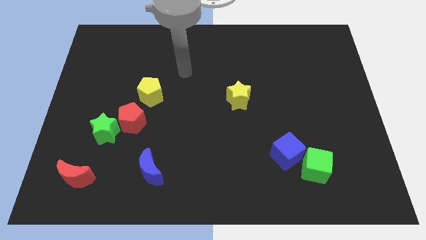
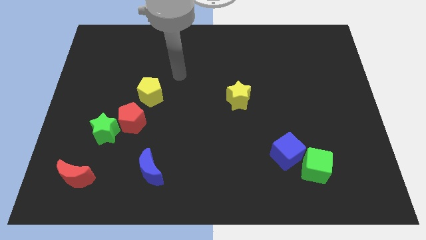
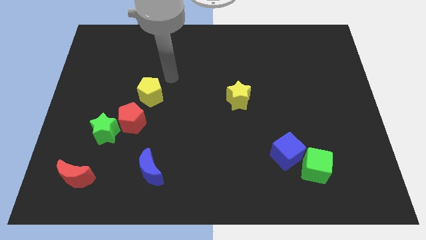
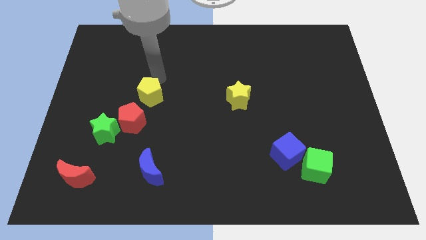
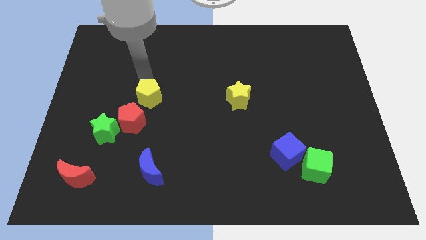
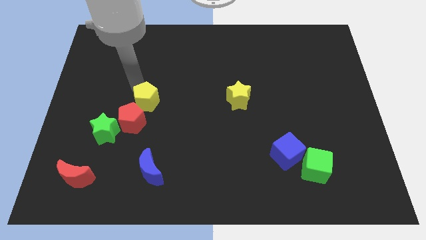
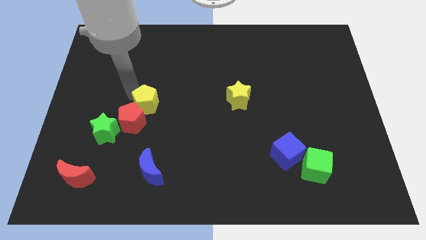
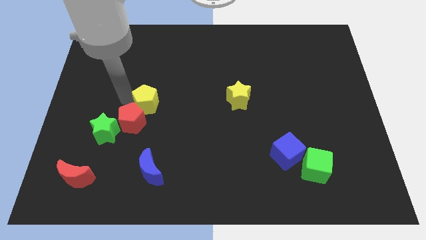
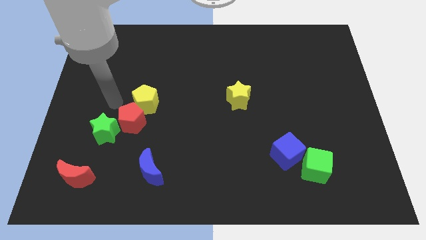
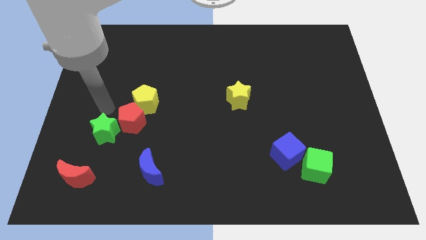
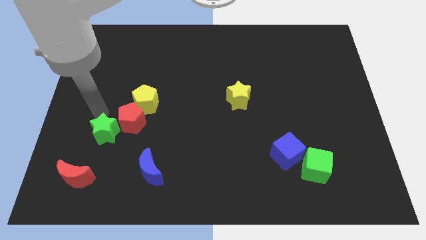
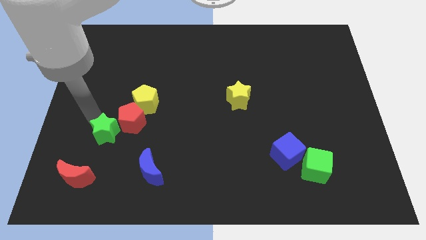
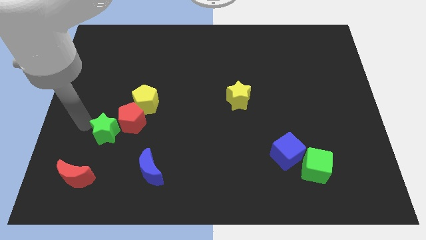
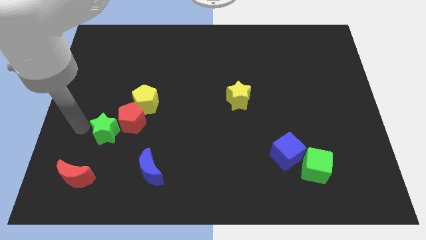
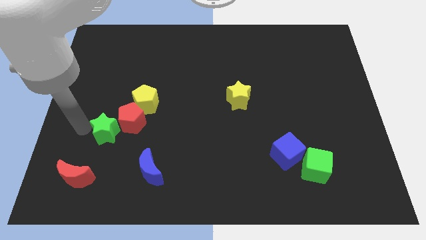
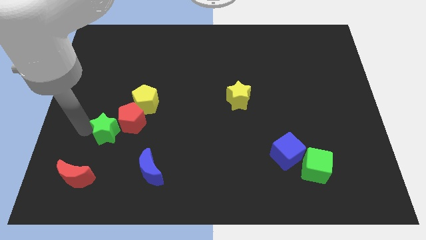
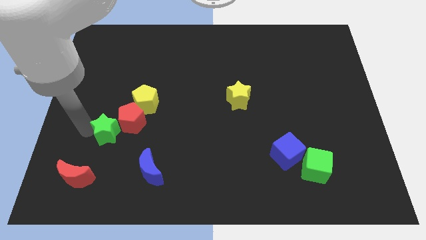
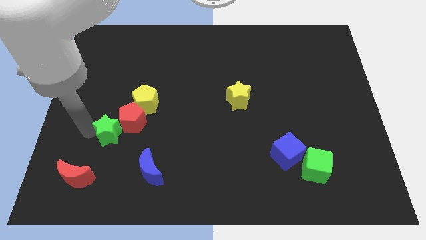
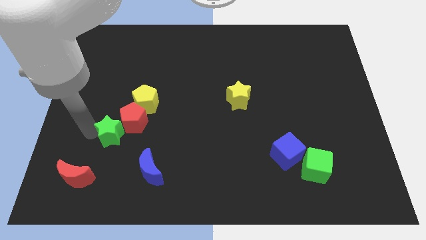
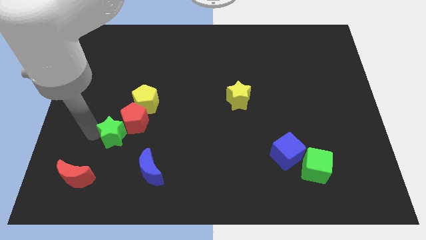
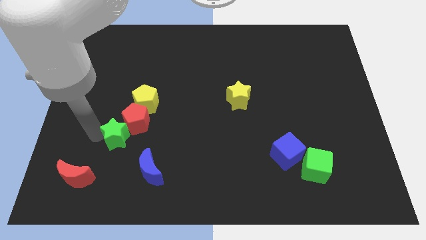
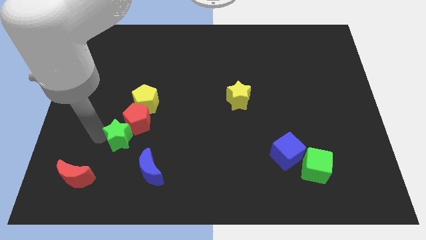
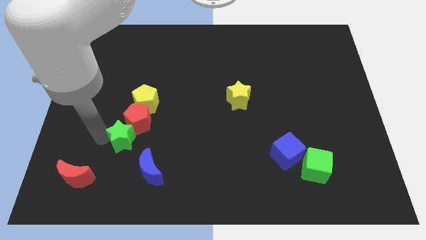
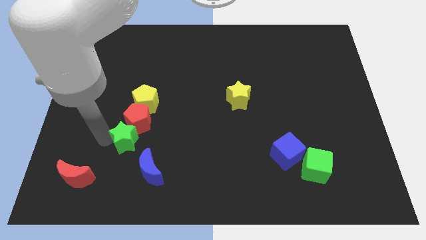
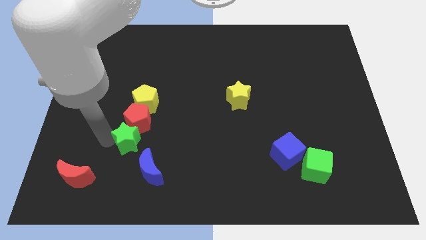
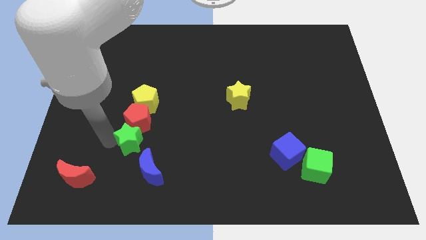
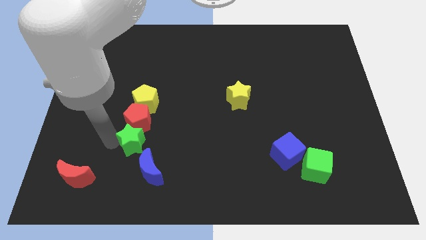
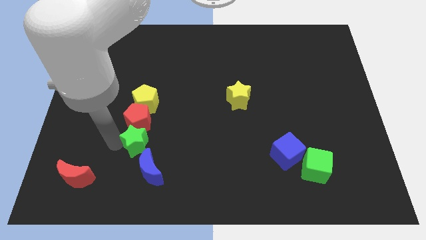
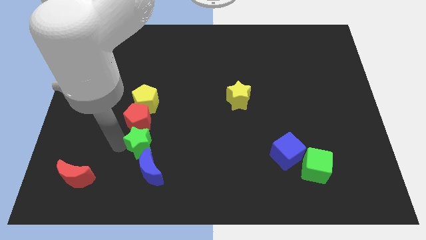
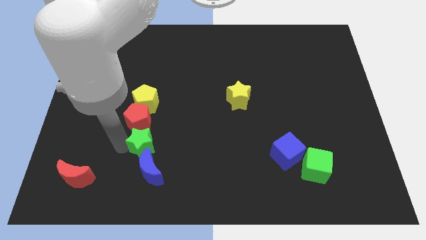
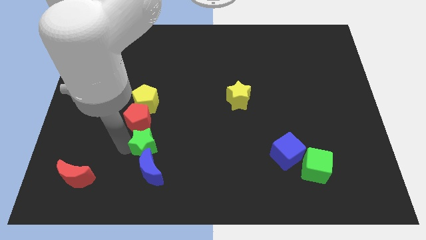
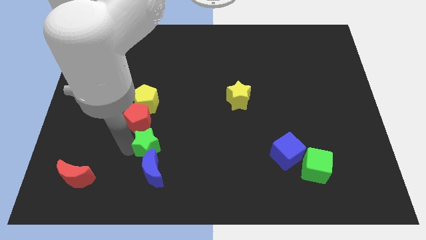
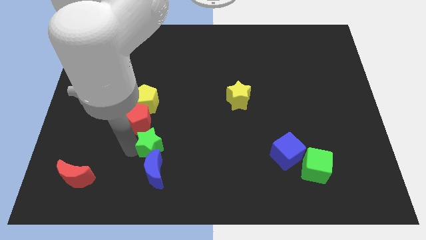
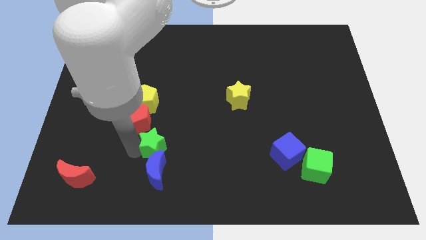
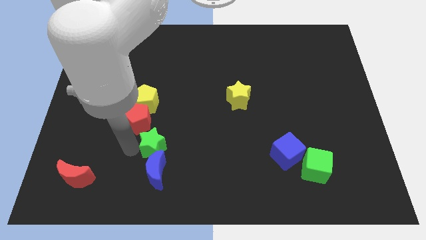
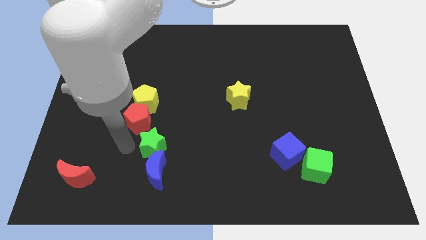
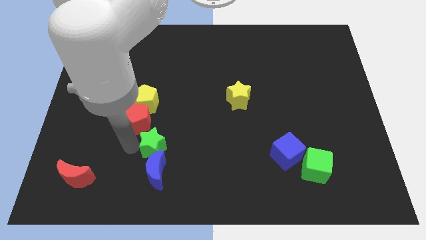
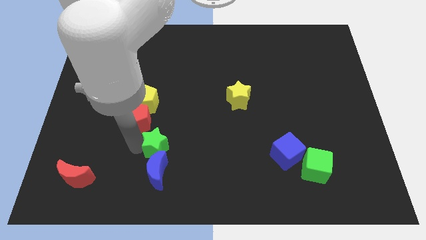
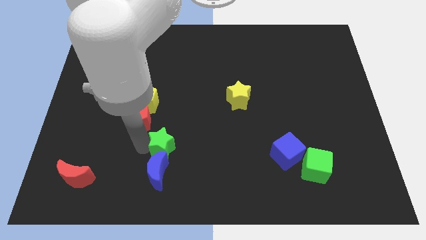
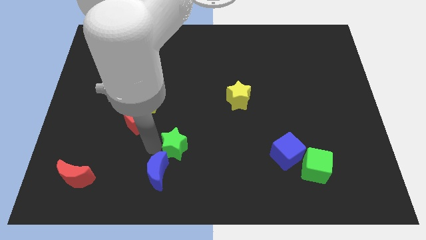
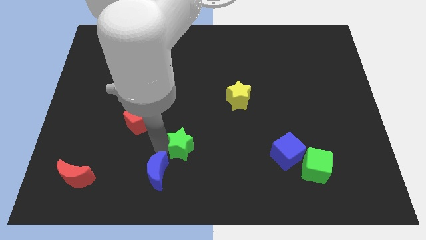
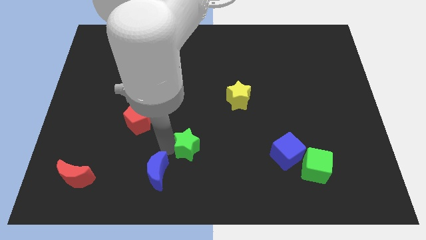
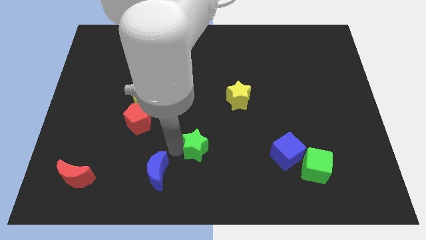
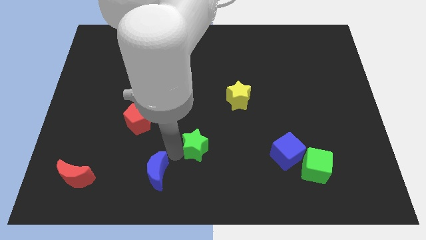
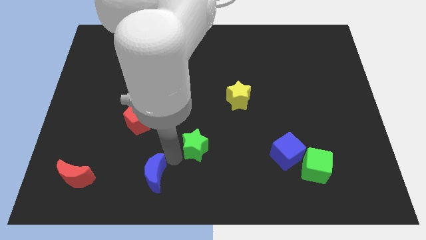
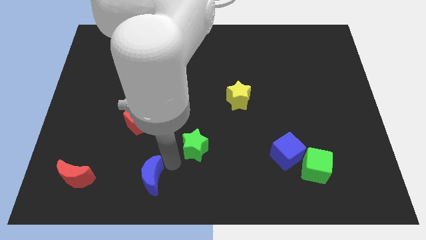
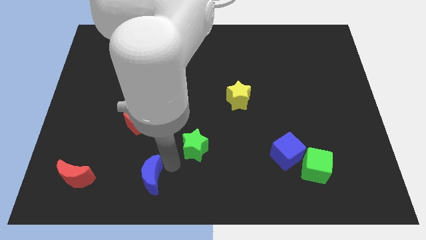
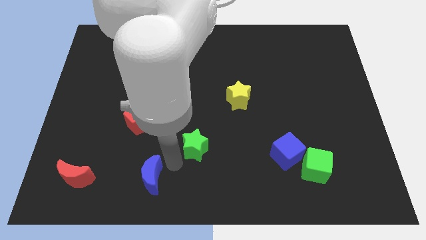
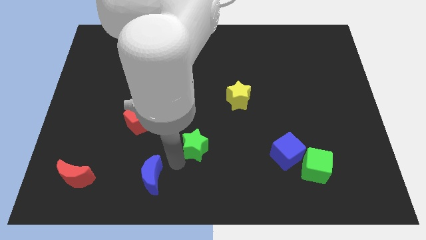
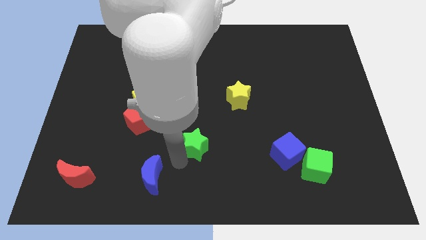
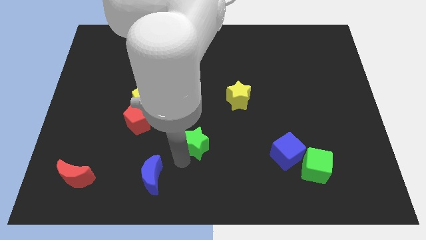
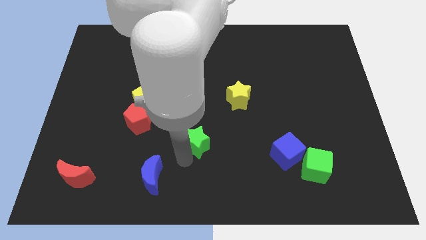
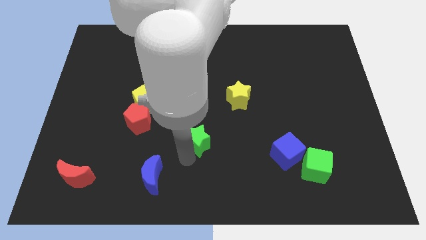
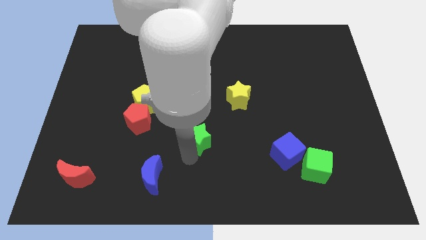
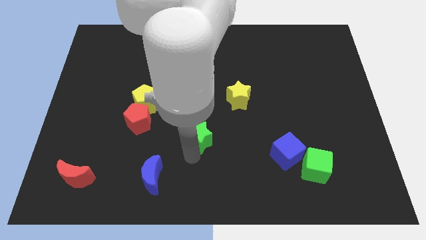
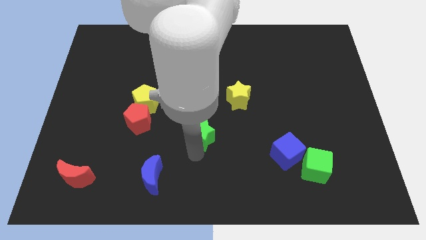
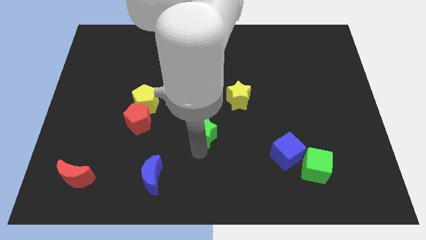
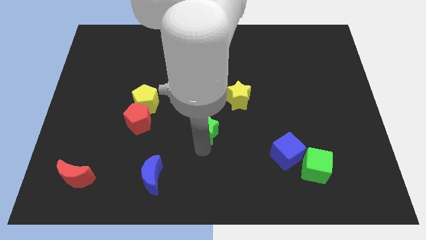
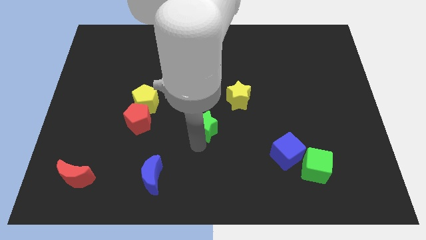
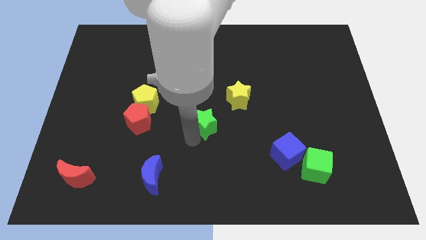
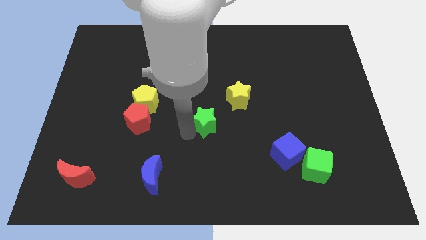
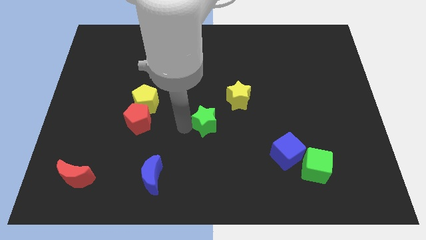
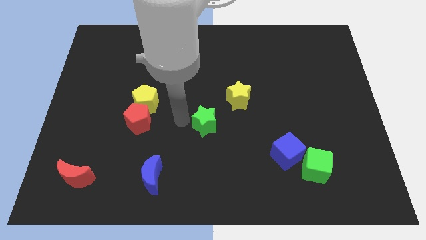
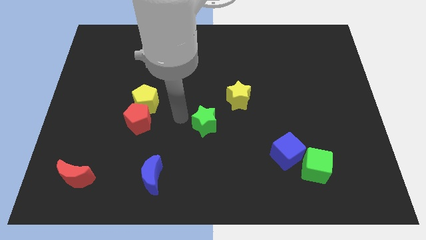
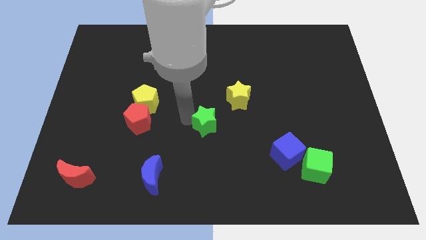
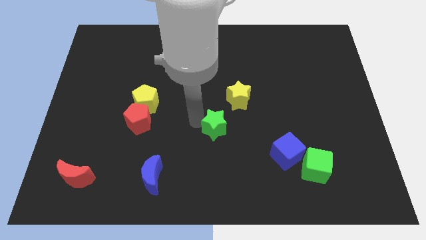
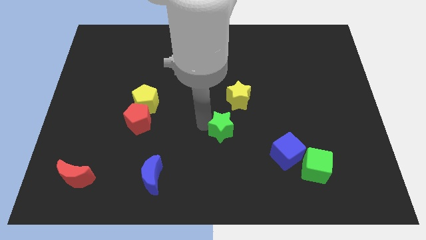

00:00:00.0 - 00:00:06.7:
push the green star to the bottom of the yellow star

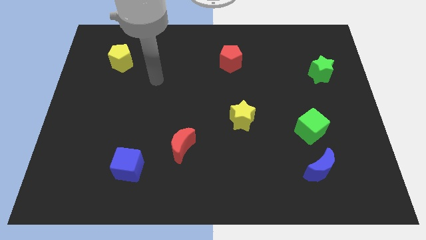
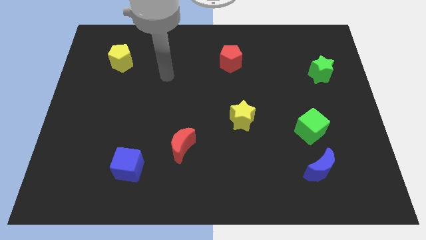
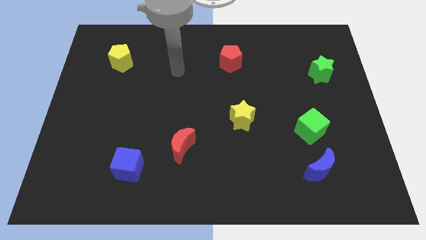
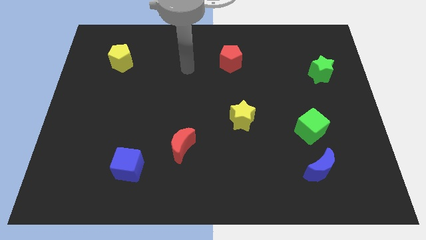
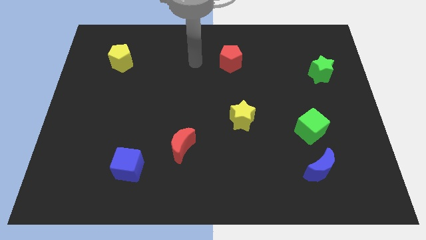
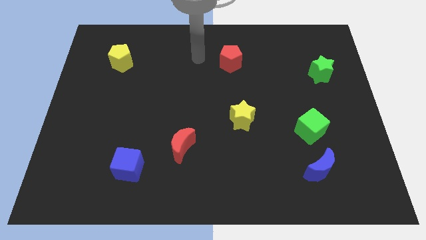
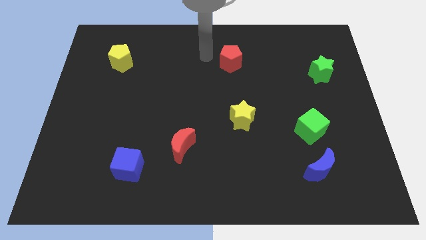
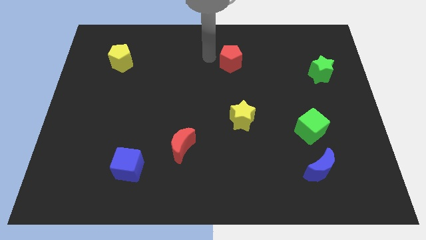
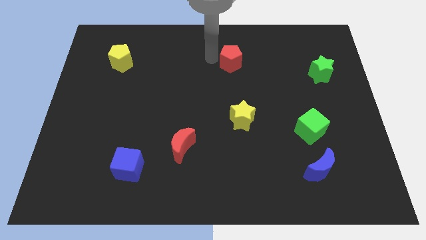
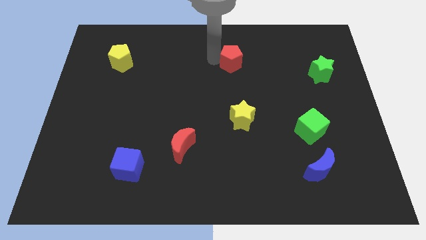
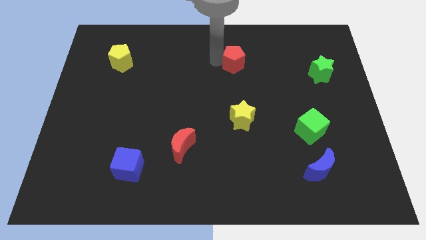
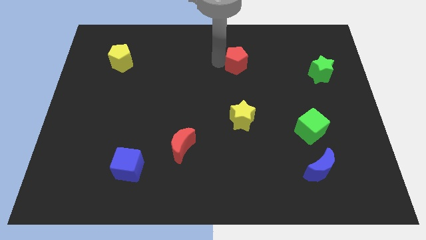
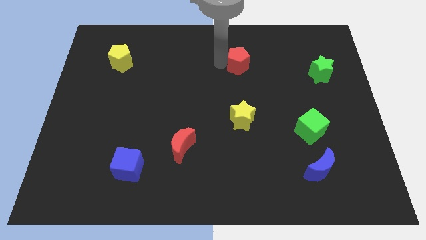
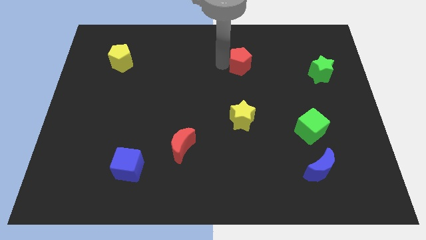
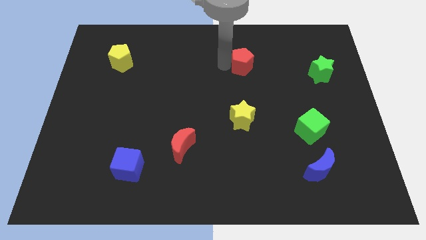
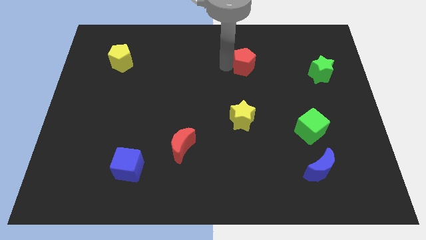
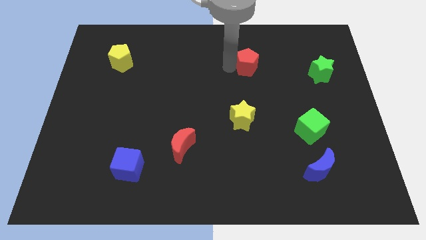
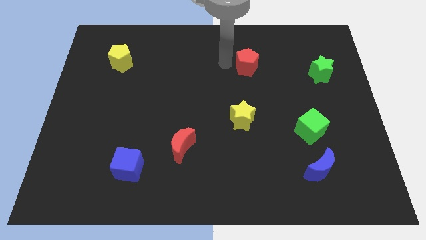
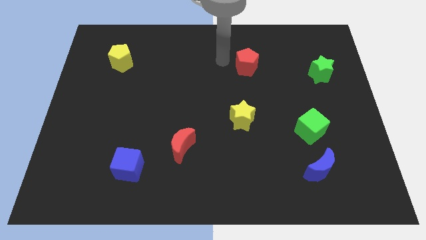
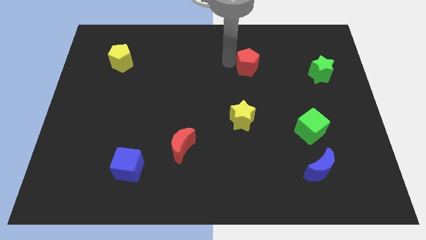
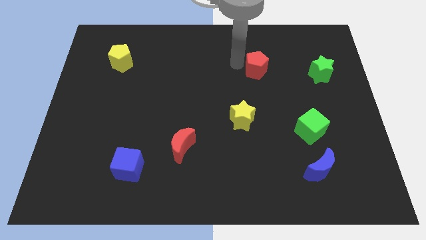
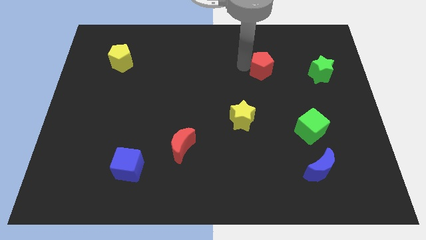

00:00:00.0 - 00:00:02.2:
move the red pentagon to the left of the green star
